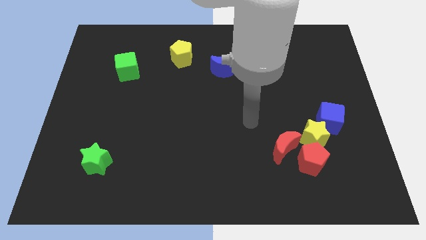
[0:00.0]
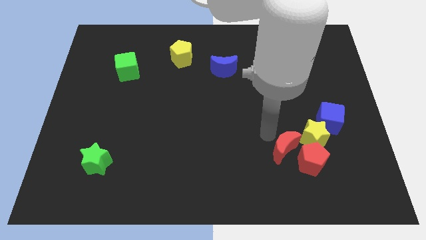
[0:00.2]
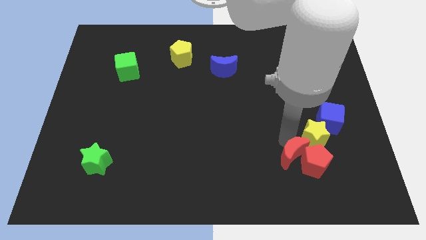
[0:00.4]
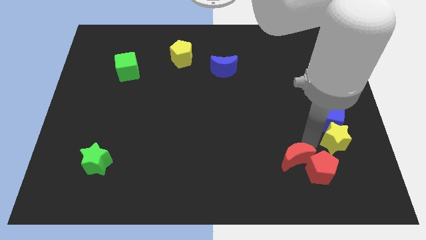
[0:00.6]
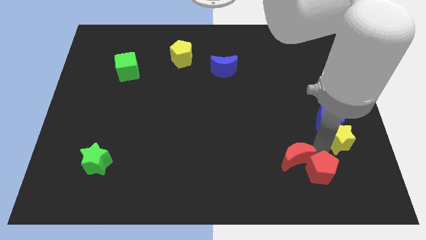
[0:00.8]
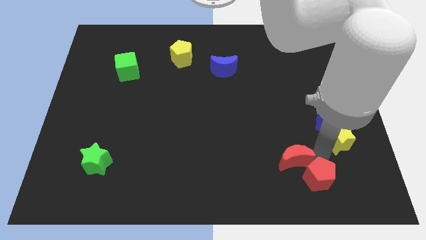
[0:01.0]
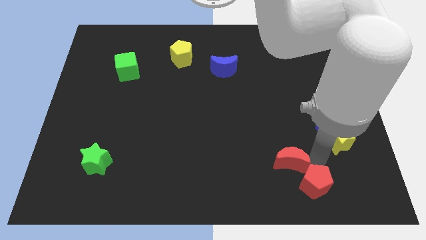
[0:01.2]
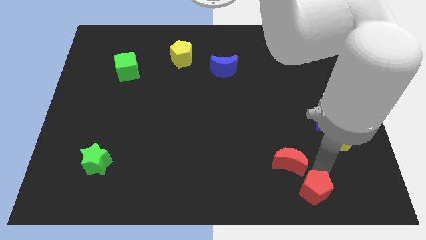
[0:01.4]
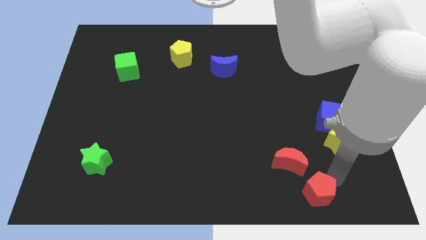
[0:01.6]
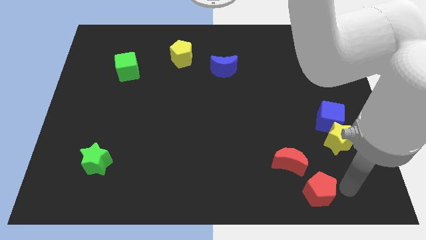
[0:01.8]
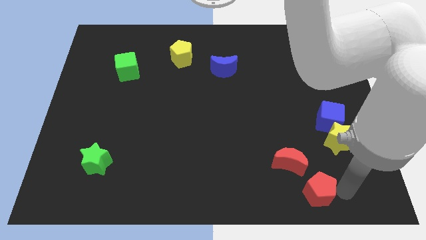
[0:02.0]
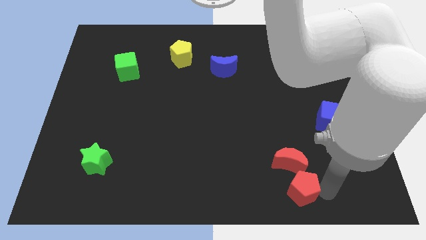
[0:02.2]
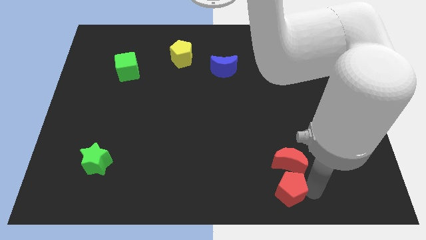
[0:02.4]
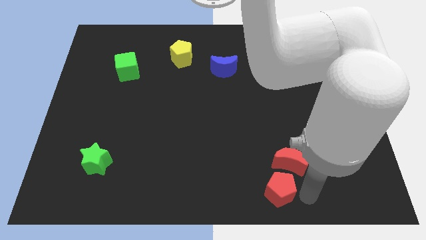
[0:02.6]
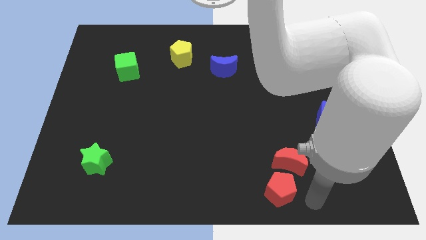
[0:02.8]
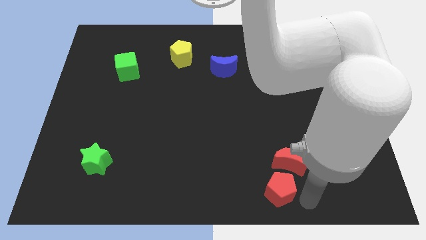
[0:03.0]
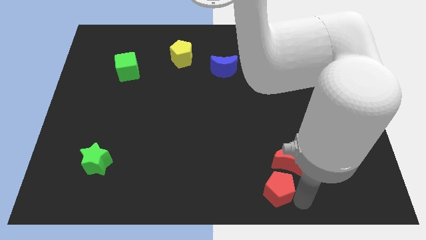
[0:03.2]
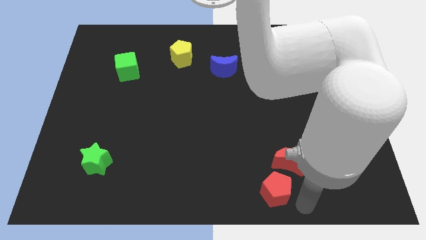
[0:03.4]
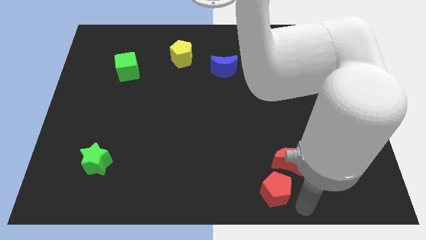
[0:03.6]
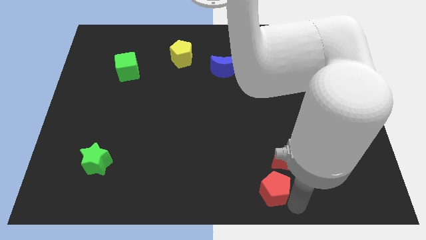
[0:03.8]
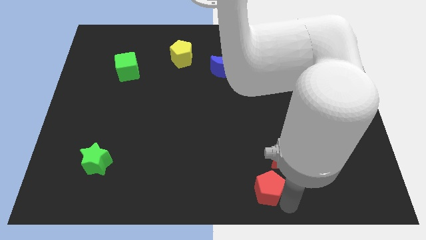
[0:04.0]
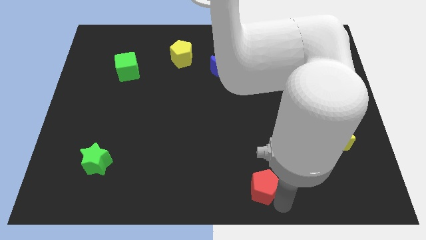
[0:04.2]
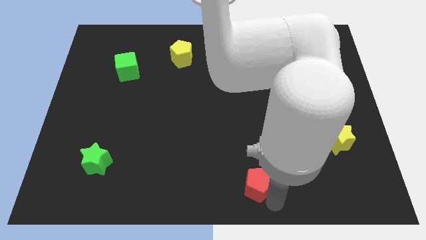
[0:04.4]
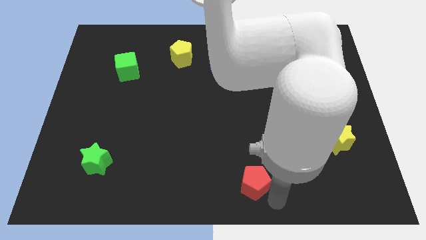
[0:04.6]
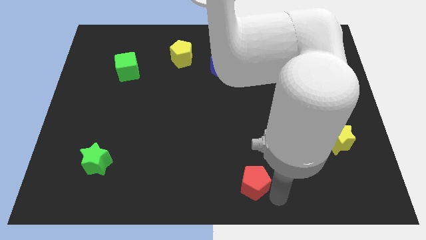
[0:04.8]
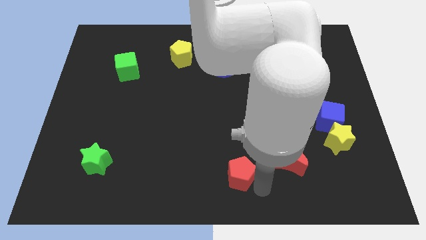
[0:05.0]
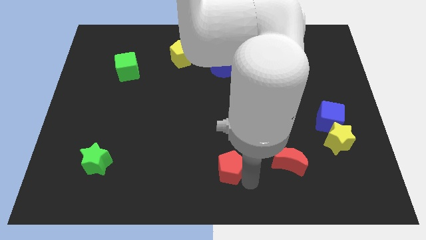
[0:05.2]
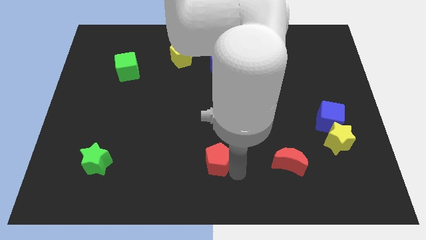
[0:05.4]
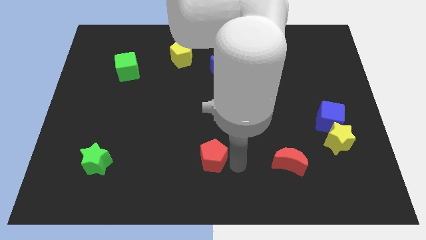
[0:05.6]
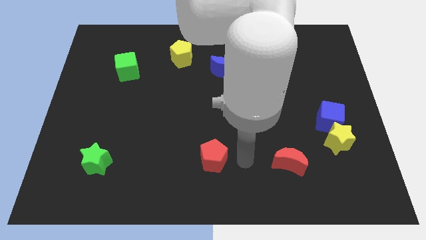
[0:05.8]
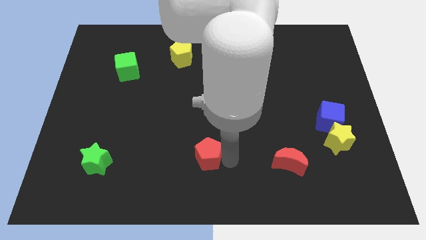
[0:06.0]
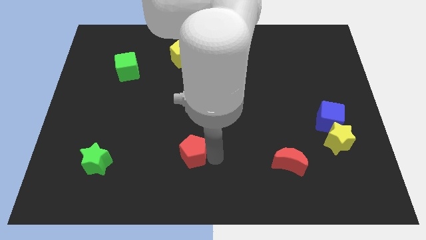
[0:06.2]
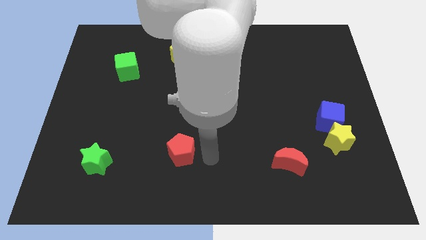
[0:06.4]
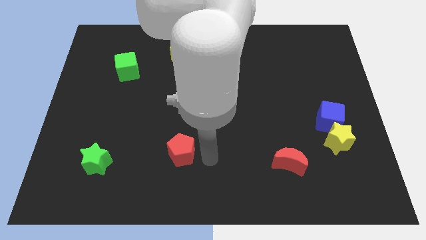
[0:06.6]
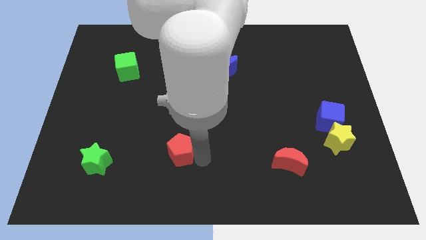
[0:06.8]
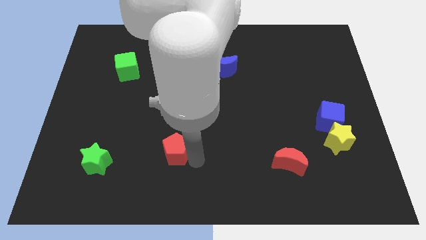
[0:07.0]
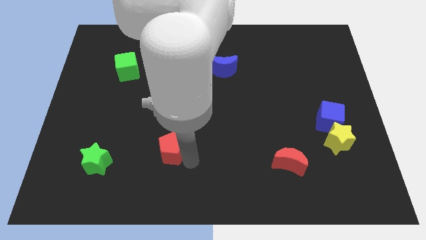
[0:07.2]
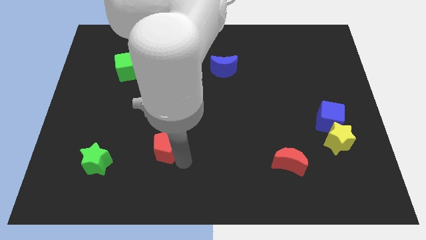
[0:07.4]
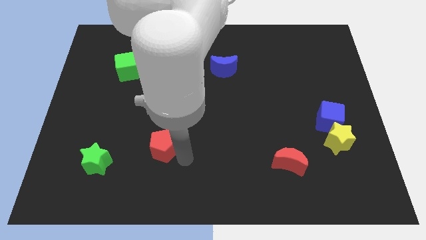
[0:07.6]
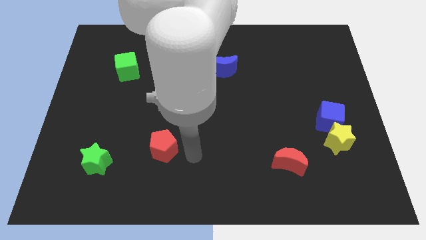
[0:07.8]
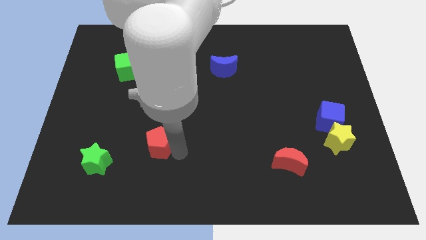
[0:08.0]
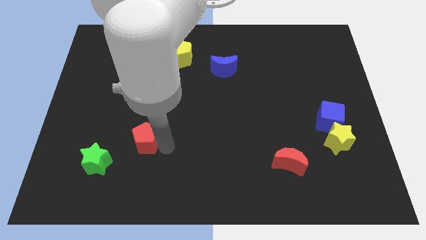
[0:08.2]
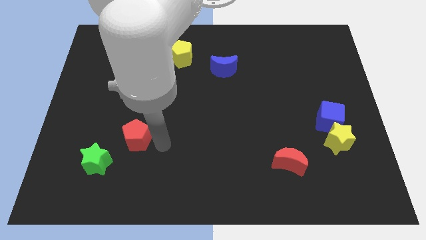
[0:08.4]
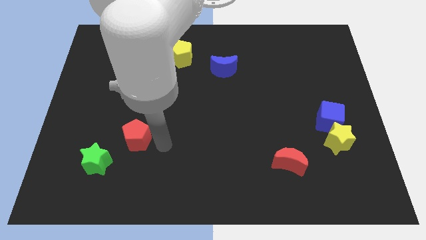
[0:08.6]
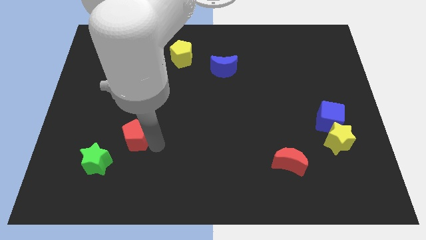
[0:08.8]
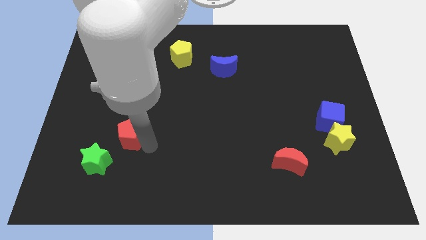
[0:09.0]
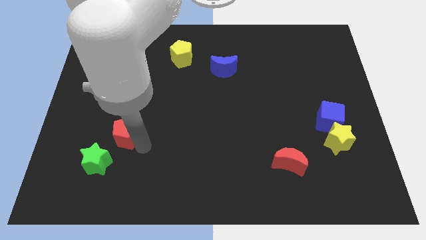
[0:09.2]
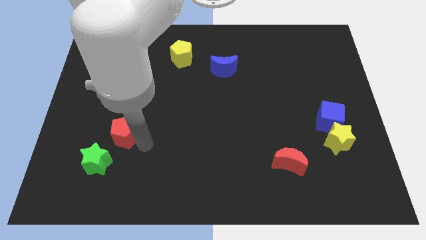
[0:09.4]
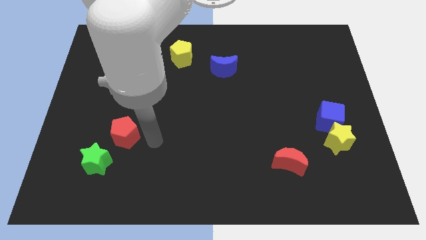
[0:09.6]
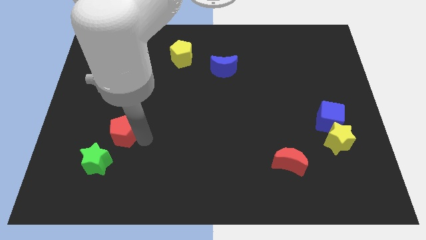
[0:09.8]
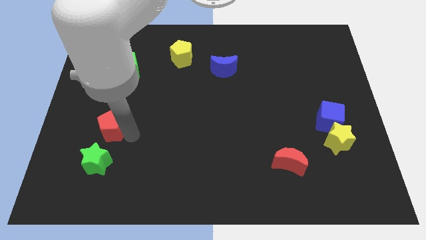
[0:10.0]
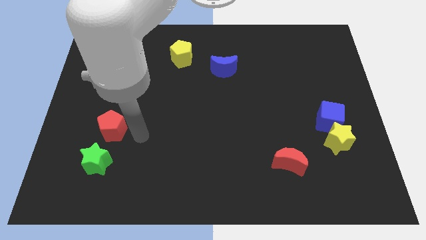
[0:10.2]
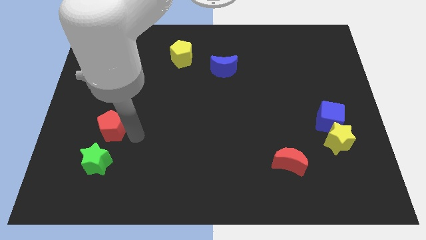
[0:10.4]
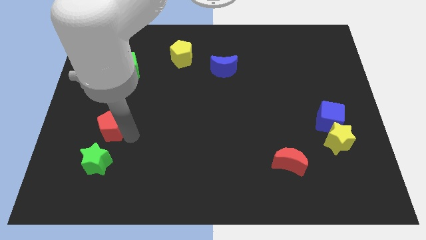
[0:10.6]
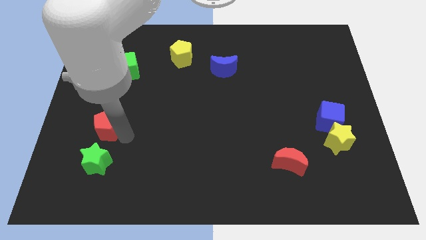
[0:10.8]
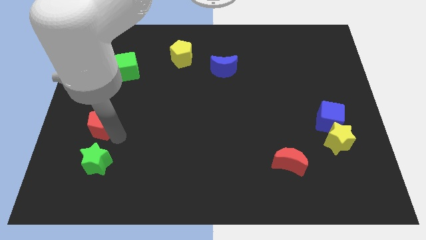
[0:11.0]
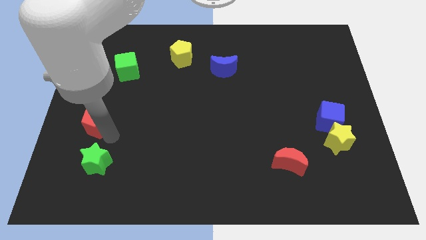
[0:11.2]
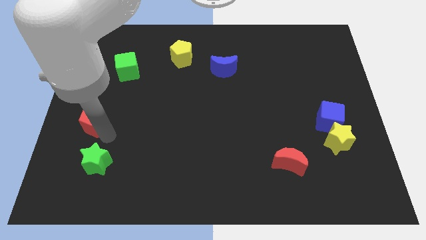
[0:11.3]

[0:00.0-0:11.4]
put the red pentagon to the left side

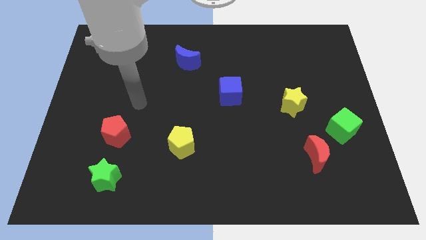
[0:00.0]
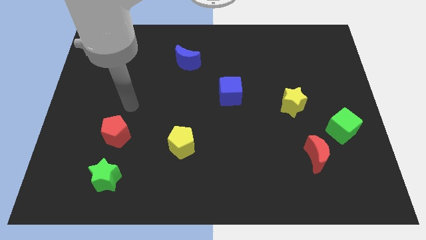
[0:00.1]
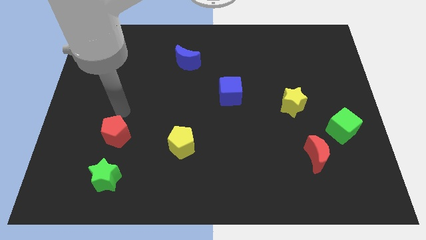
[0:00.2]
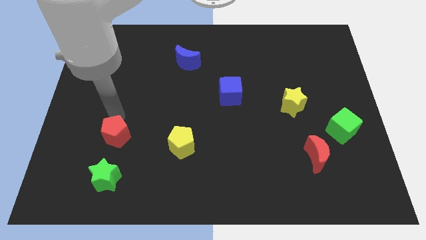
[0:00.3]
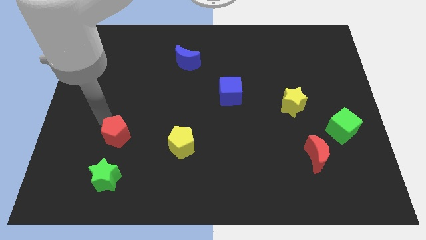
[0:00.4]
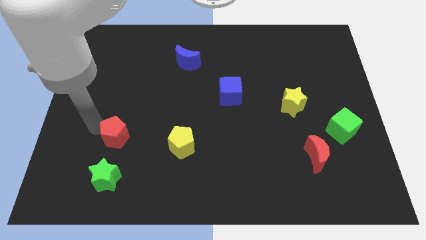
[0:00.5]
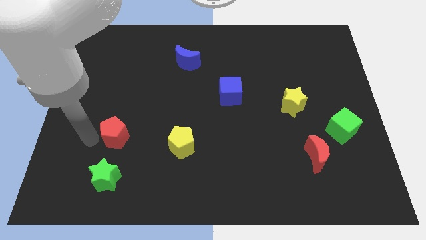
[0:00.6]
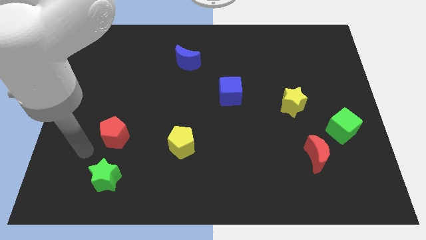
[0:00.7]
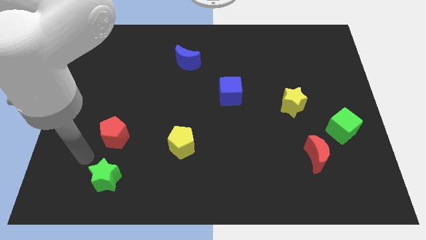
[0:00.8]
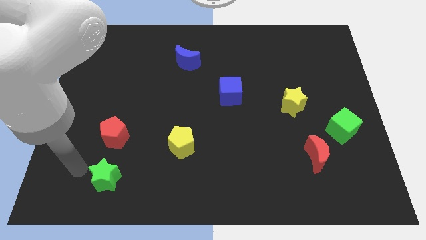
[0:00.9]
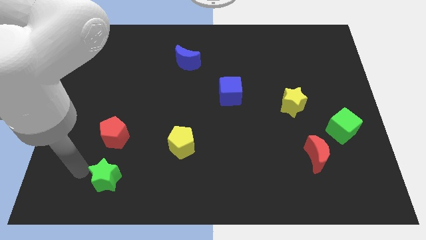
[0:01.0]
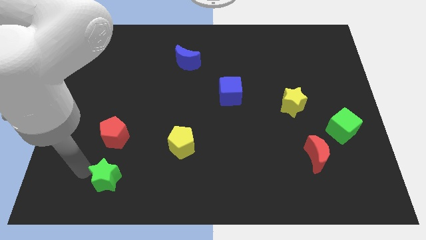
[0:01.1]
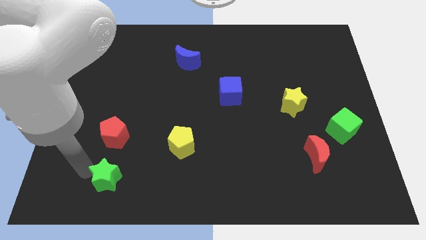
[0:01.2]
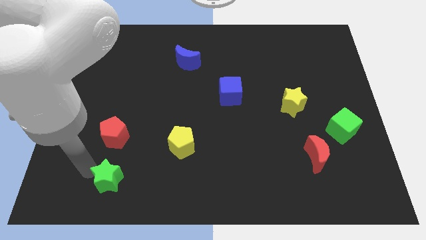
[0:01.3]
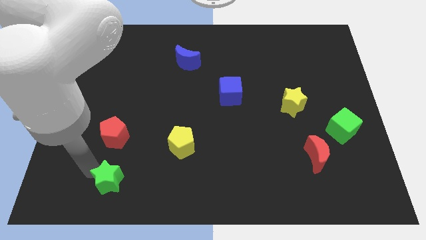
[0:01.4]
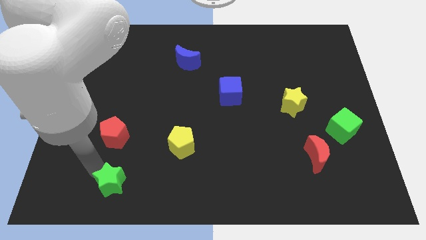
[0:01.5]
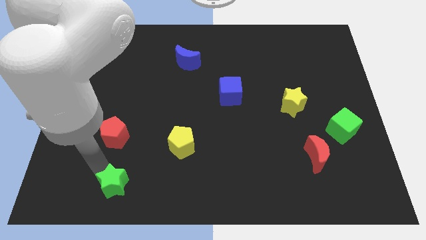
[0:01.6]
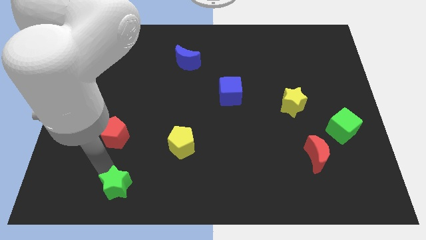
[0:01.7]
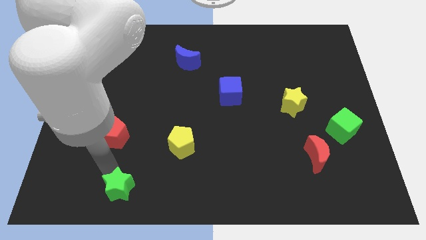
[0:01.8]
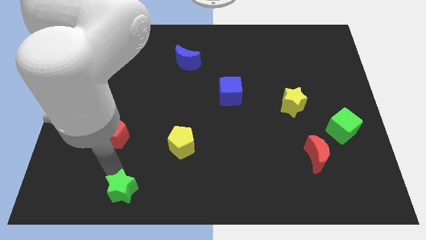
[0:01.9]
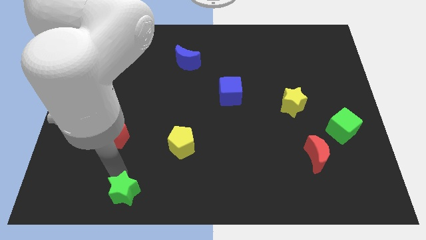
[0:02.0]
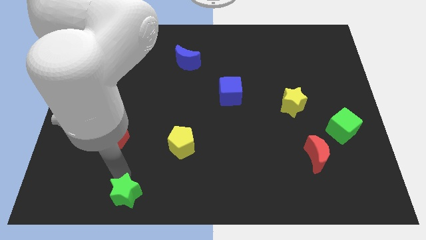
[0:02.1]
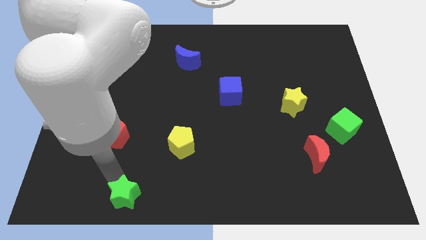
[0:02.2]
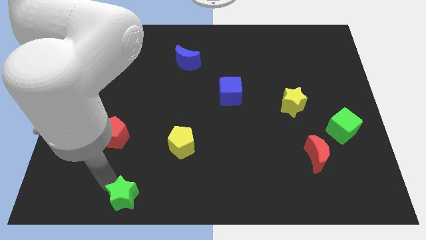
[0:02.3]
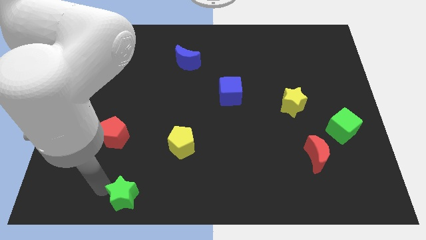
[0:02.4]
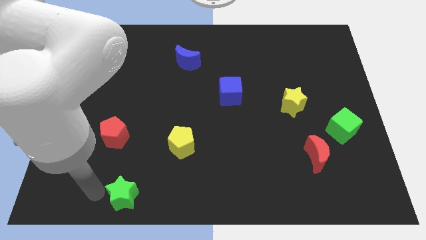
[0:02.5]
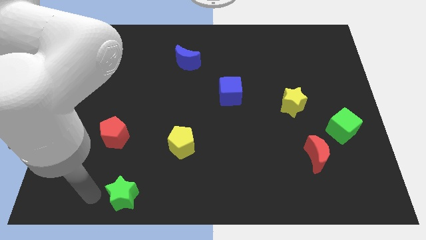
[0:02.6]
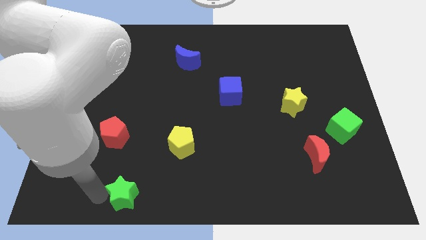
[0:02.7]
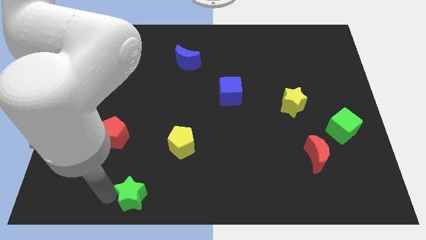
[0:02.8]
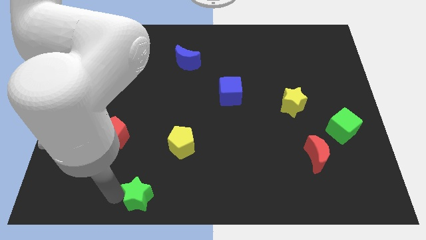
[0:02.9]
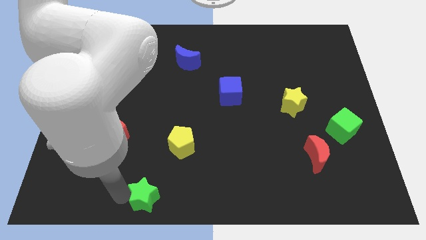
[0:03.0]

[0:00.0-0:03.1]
move the green star to the bottom side
